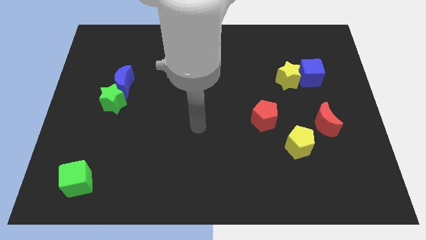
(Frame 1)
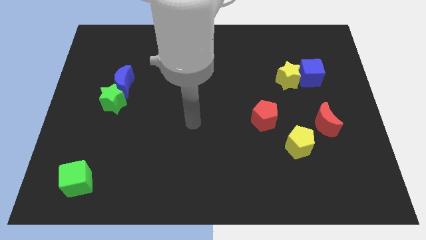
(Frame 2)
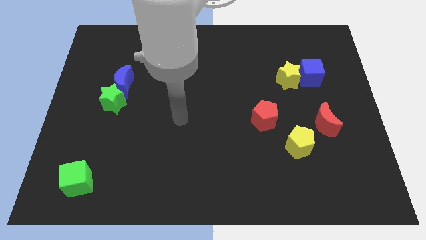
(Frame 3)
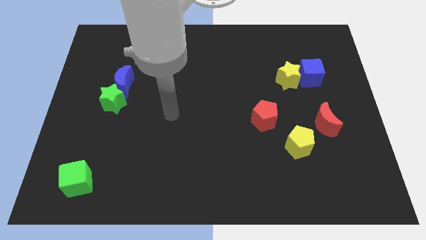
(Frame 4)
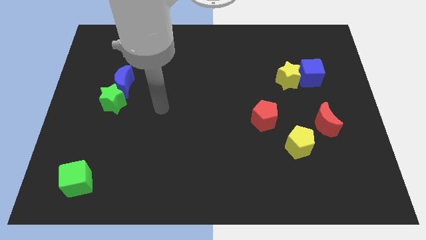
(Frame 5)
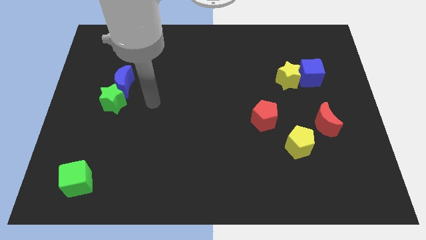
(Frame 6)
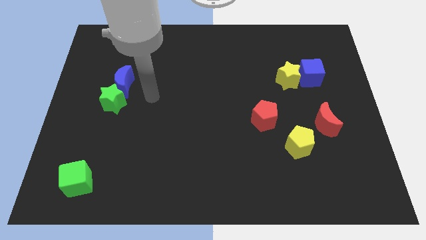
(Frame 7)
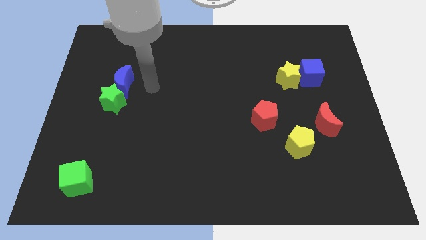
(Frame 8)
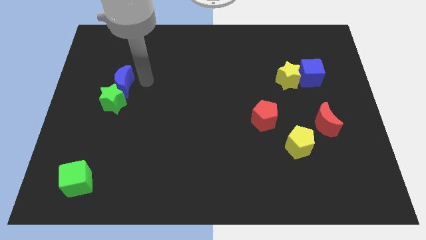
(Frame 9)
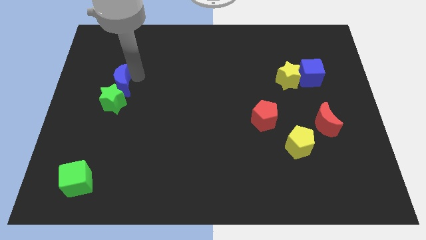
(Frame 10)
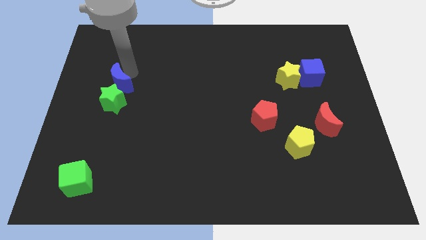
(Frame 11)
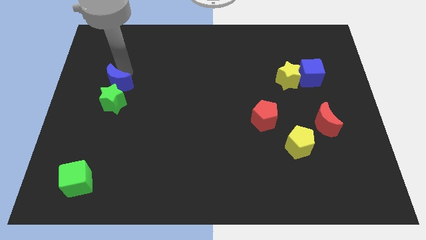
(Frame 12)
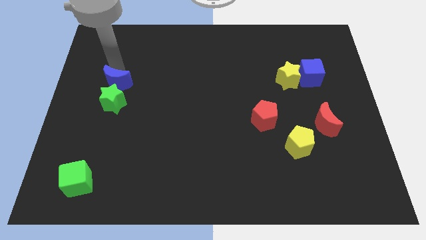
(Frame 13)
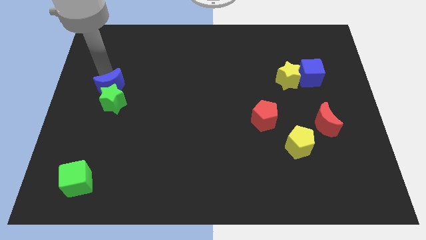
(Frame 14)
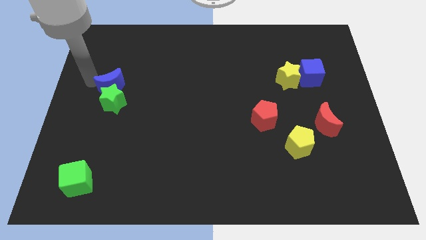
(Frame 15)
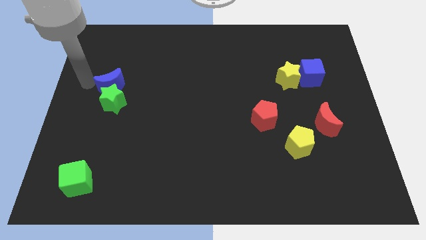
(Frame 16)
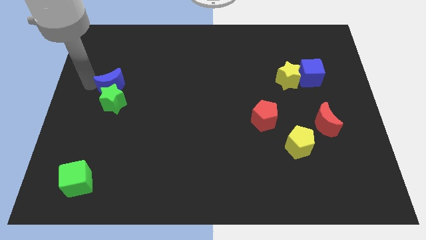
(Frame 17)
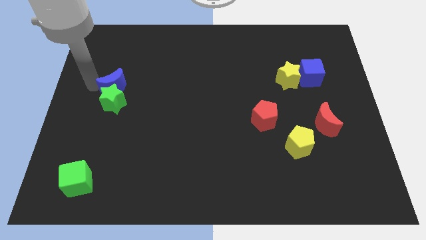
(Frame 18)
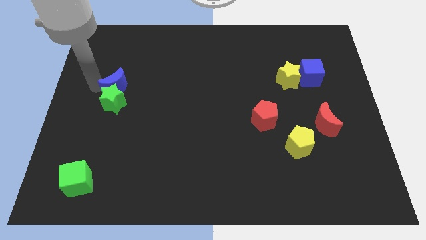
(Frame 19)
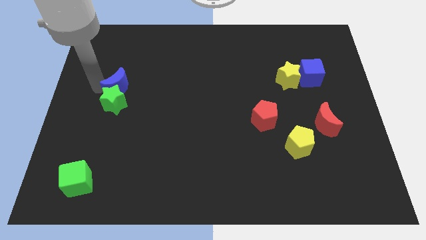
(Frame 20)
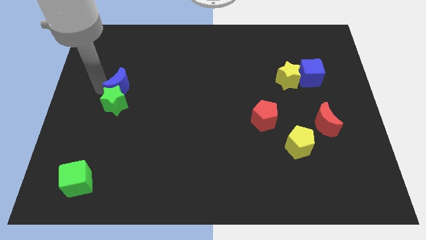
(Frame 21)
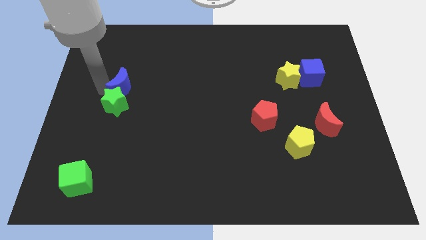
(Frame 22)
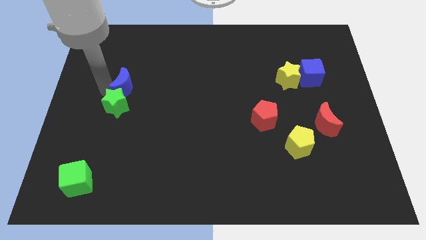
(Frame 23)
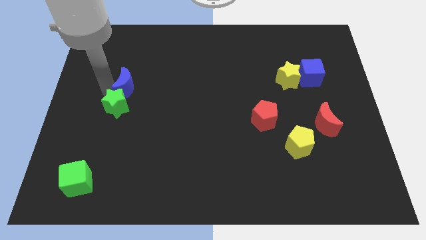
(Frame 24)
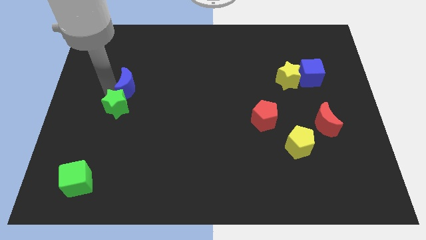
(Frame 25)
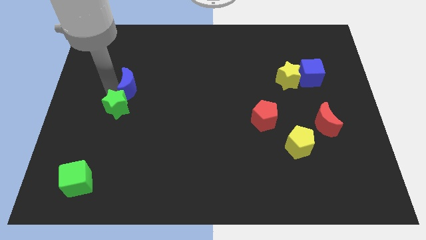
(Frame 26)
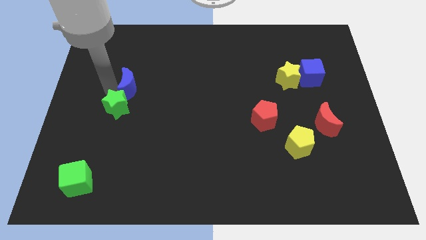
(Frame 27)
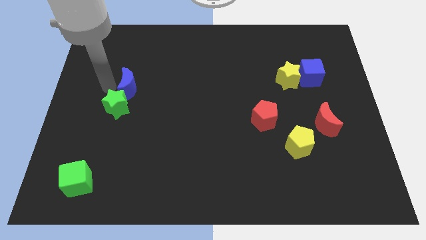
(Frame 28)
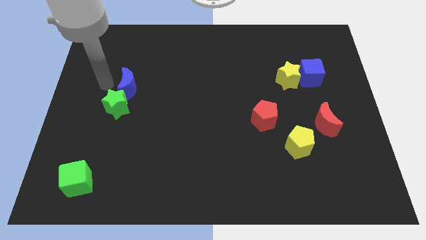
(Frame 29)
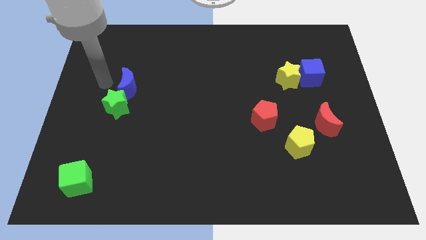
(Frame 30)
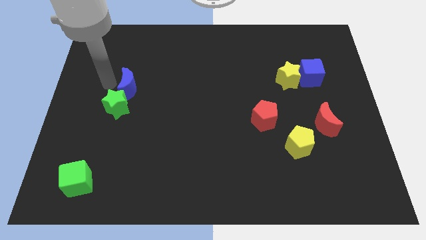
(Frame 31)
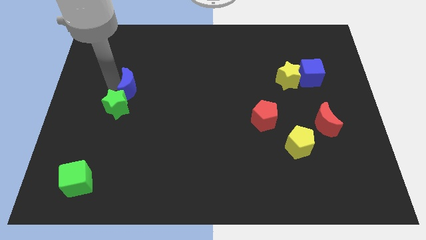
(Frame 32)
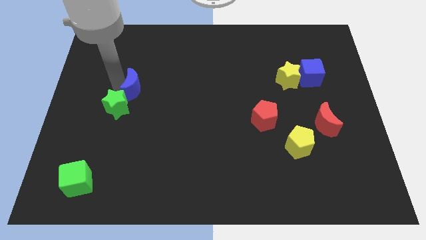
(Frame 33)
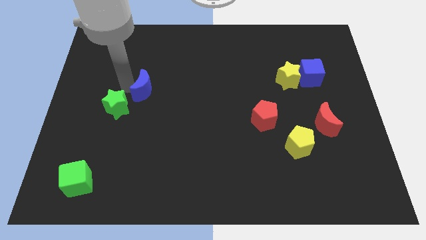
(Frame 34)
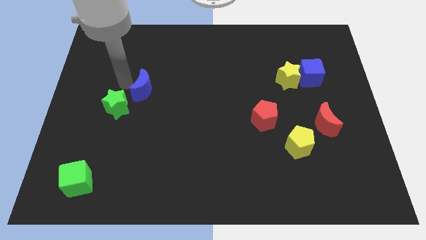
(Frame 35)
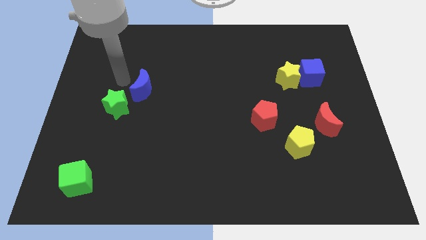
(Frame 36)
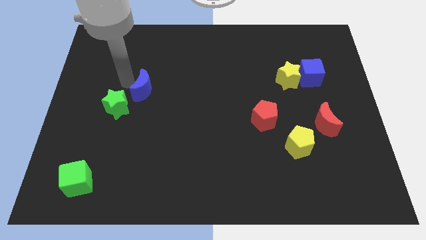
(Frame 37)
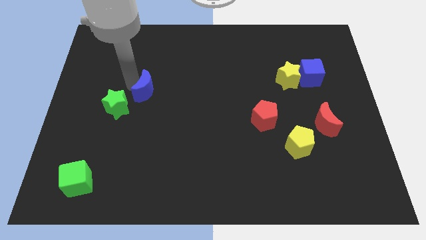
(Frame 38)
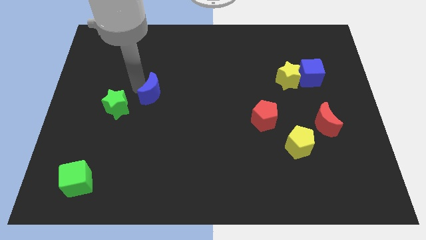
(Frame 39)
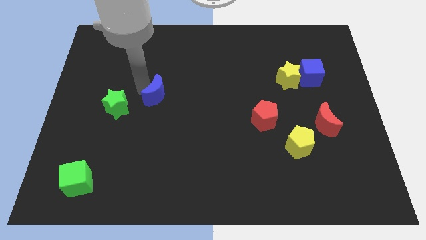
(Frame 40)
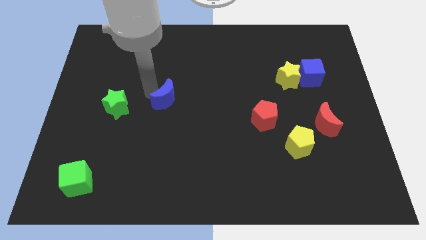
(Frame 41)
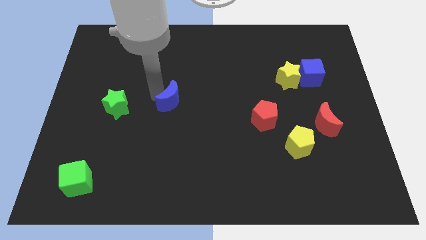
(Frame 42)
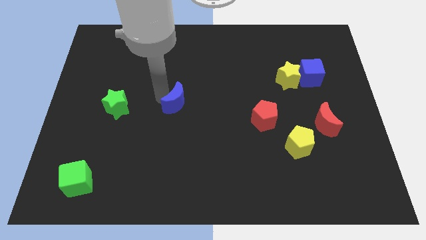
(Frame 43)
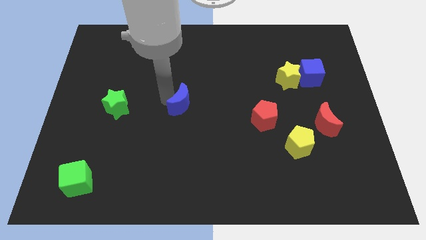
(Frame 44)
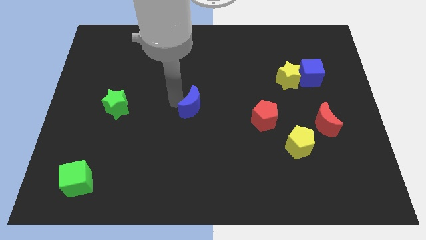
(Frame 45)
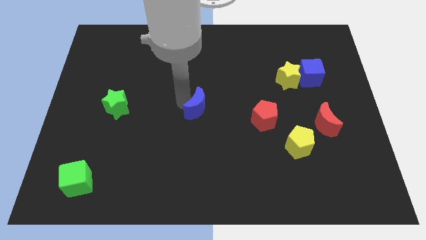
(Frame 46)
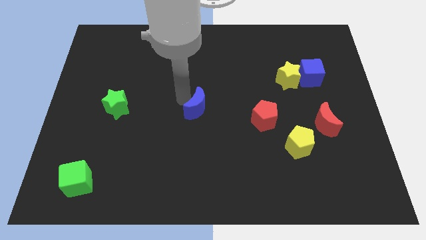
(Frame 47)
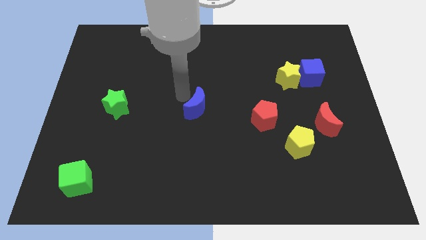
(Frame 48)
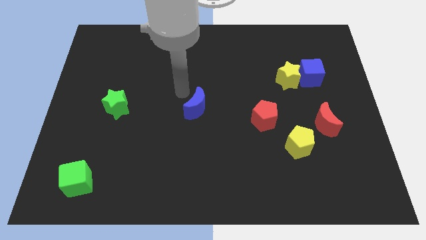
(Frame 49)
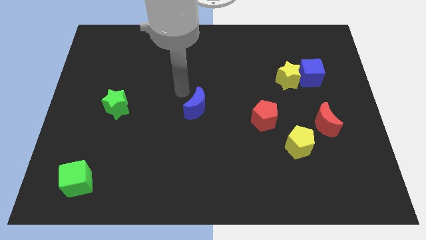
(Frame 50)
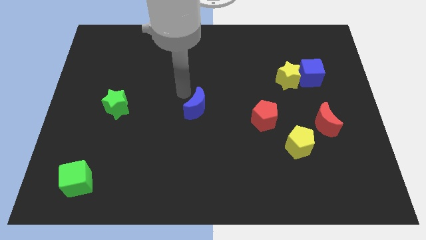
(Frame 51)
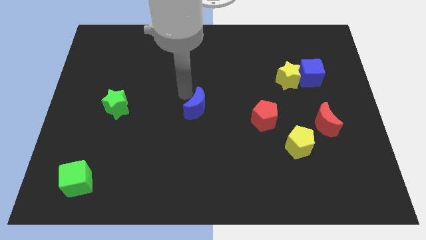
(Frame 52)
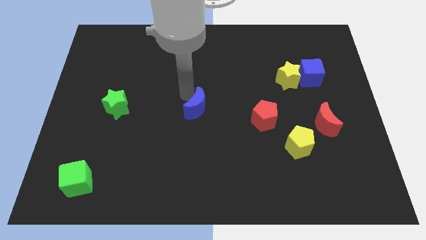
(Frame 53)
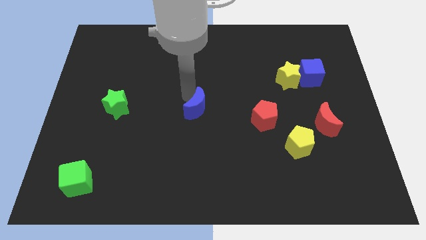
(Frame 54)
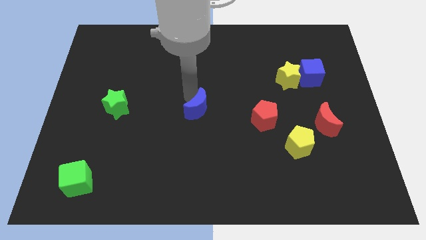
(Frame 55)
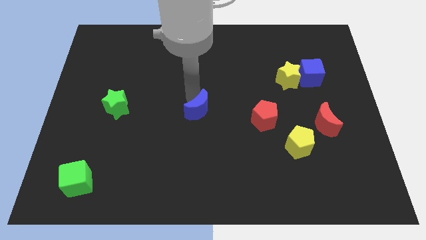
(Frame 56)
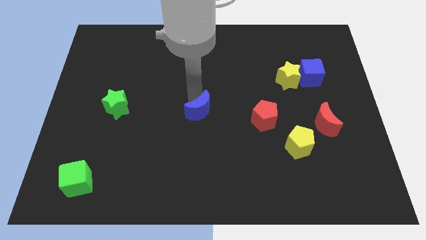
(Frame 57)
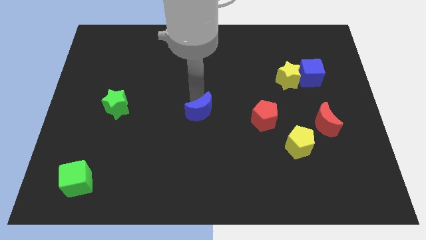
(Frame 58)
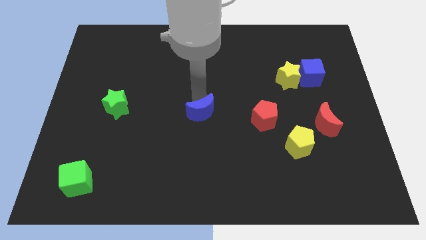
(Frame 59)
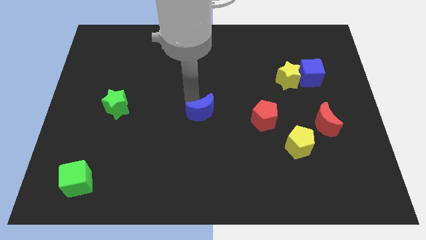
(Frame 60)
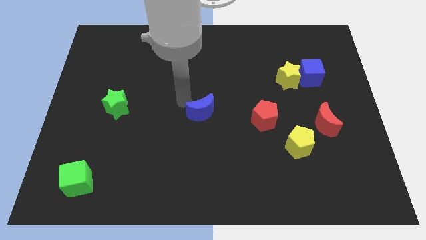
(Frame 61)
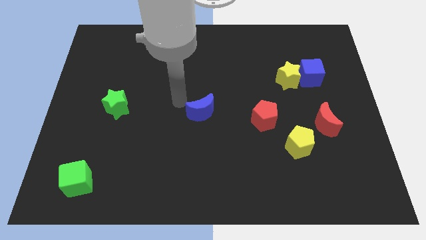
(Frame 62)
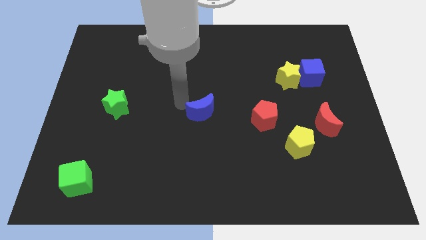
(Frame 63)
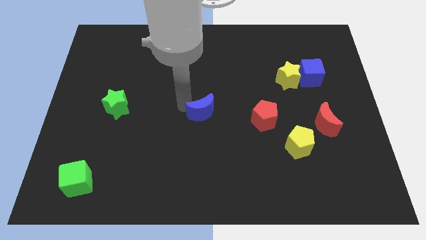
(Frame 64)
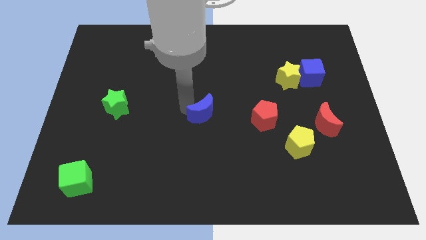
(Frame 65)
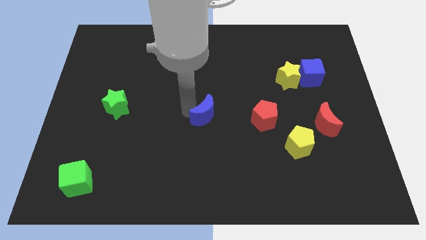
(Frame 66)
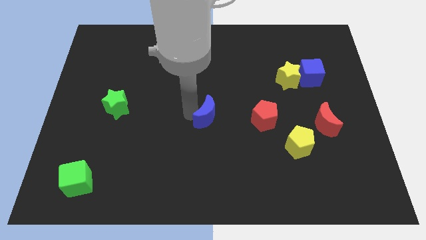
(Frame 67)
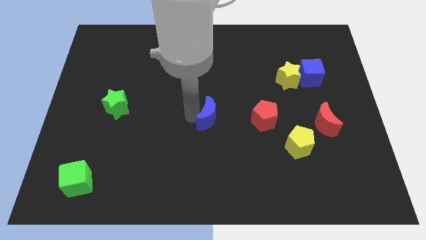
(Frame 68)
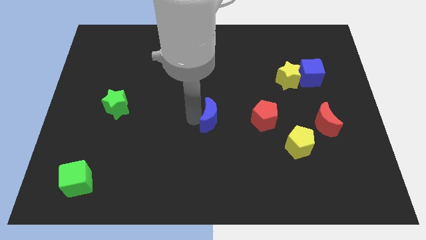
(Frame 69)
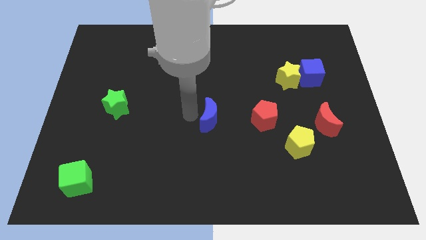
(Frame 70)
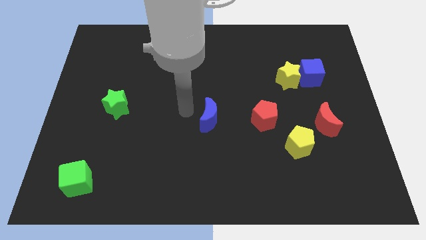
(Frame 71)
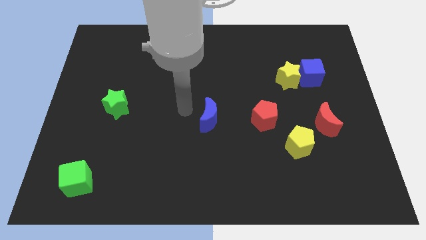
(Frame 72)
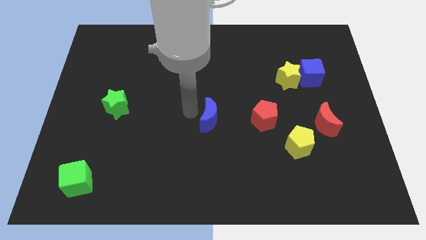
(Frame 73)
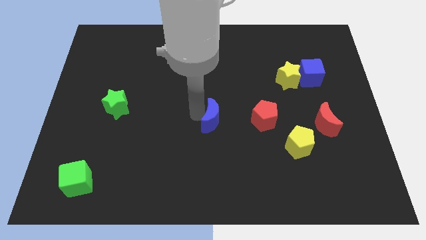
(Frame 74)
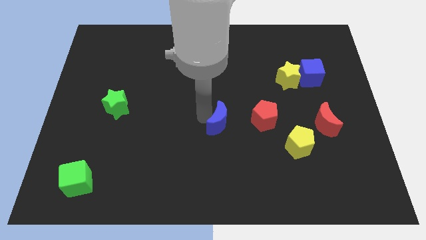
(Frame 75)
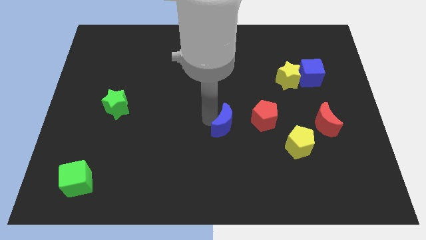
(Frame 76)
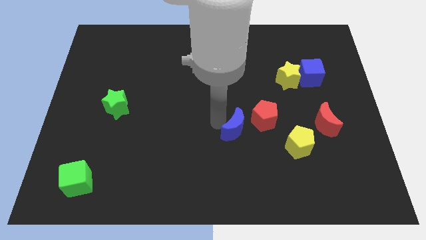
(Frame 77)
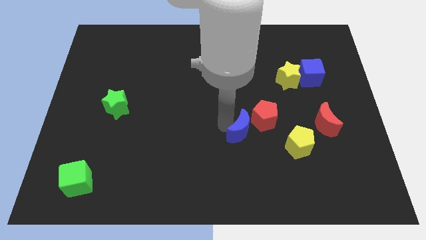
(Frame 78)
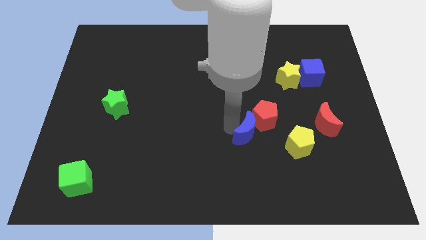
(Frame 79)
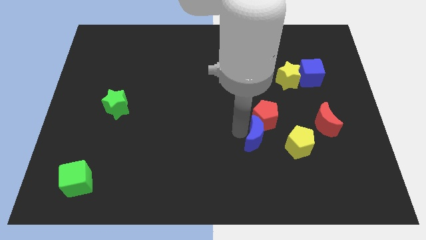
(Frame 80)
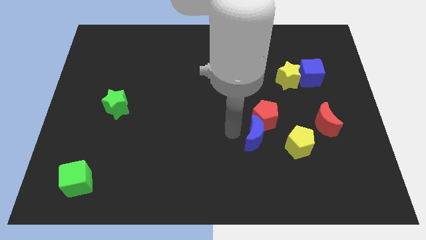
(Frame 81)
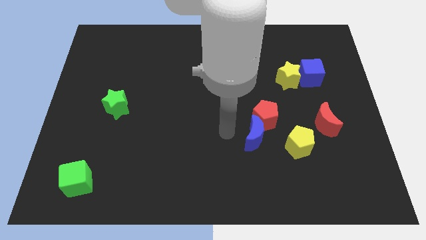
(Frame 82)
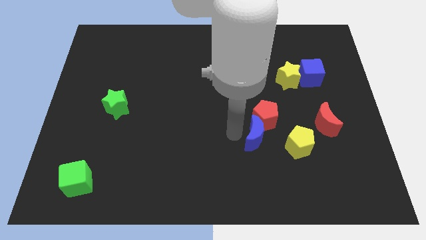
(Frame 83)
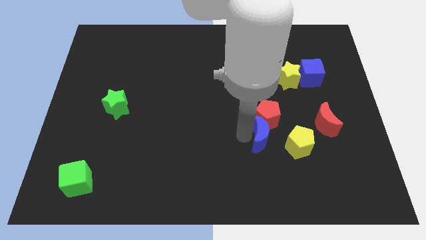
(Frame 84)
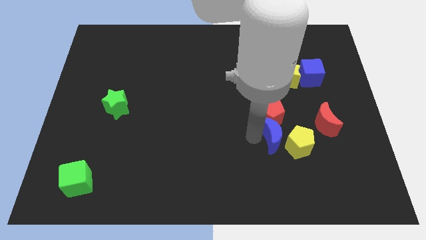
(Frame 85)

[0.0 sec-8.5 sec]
push the blue moon to the yellow pentagon
